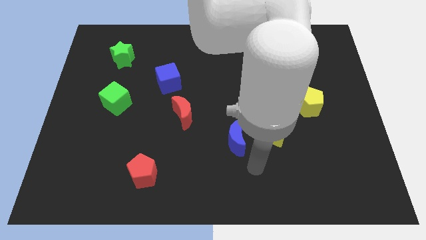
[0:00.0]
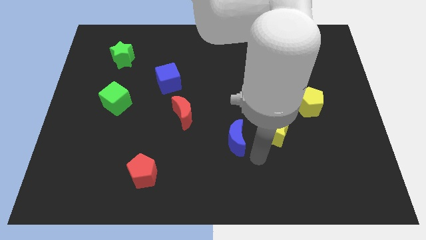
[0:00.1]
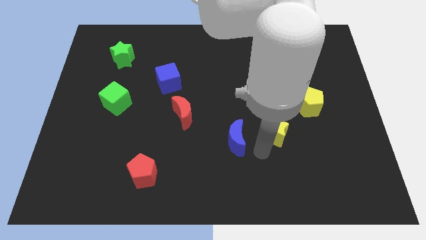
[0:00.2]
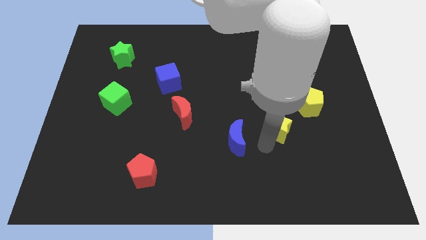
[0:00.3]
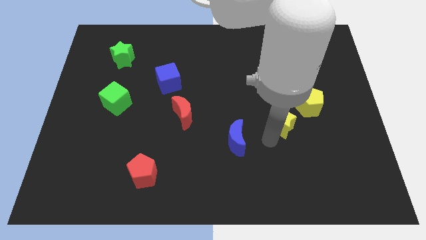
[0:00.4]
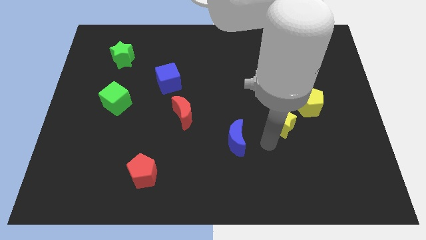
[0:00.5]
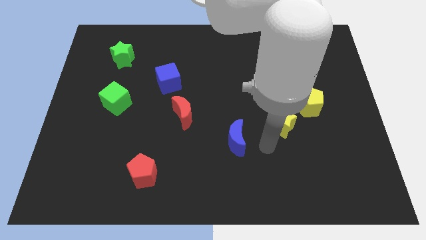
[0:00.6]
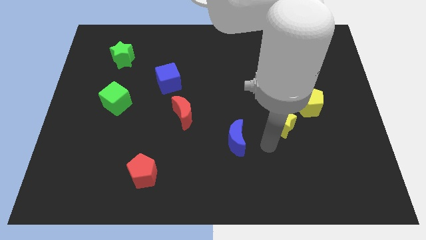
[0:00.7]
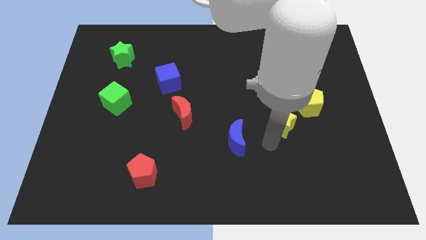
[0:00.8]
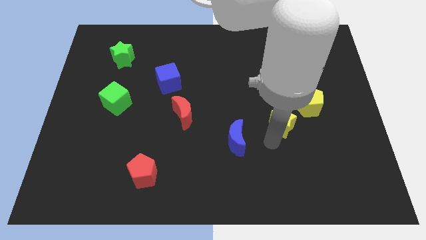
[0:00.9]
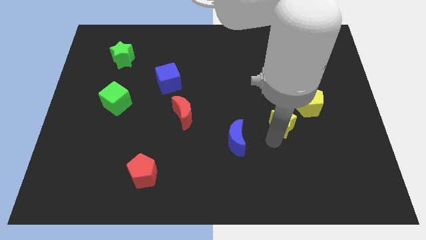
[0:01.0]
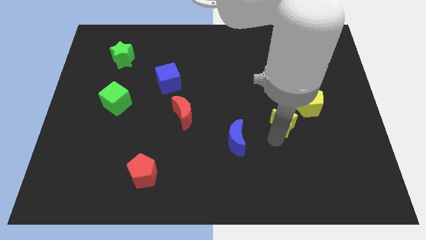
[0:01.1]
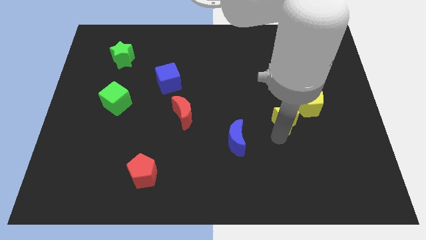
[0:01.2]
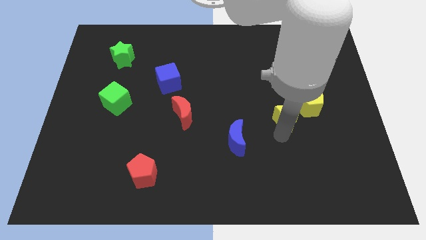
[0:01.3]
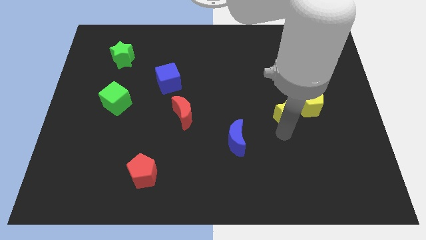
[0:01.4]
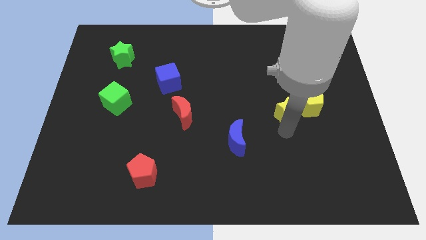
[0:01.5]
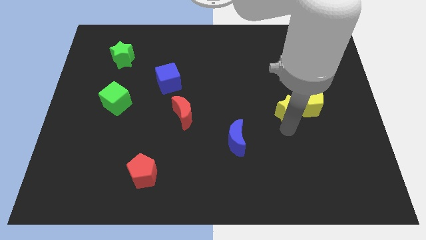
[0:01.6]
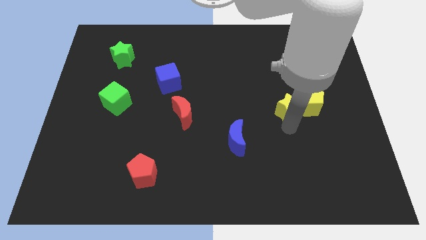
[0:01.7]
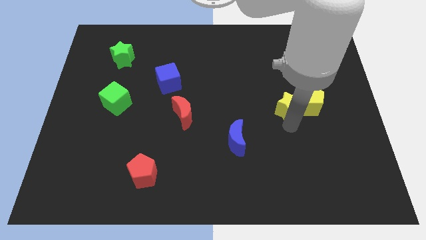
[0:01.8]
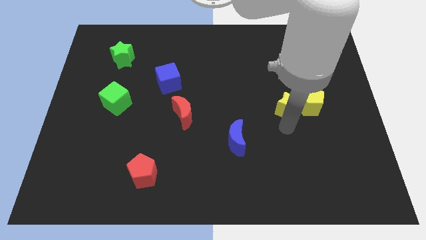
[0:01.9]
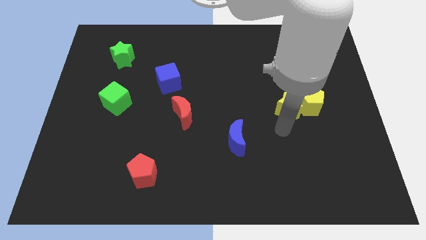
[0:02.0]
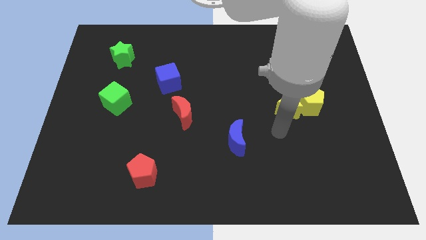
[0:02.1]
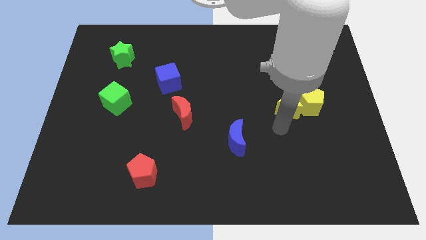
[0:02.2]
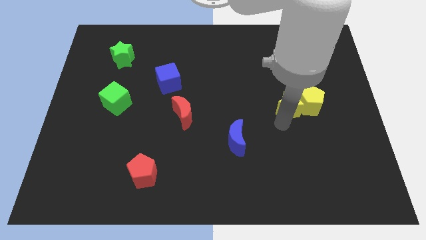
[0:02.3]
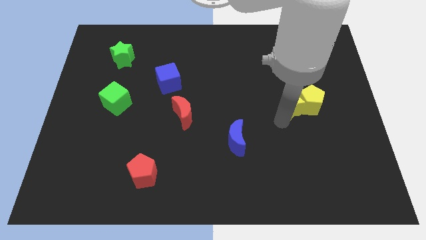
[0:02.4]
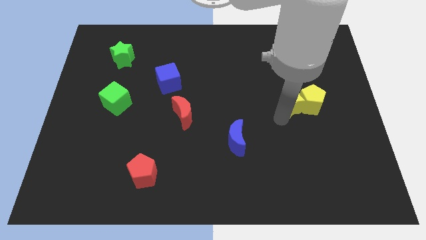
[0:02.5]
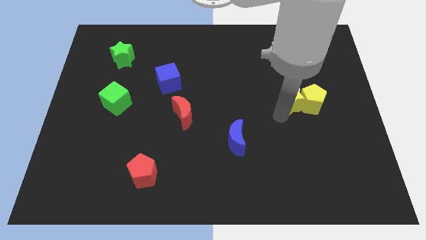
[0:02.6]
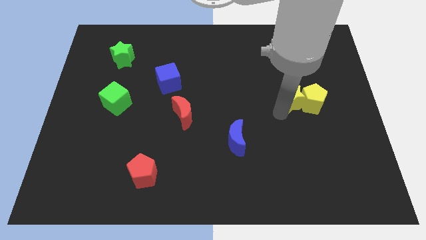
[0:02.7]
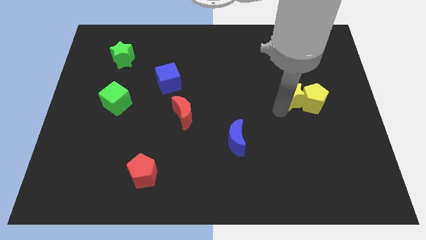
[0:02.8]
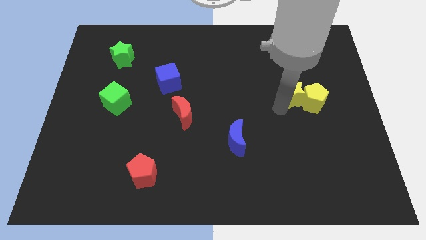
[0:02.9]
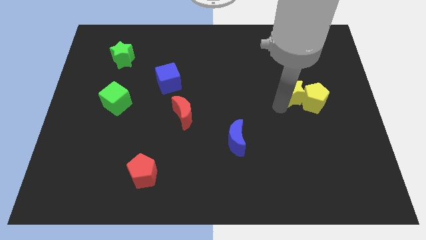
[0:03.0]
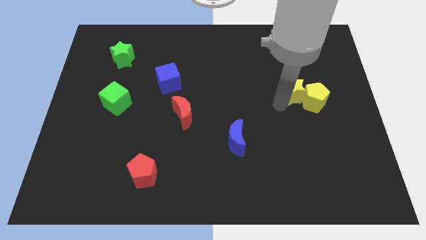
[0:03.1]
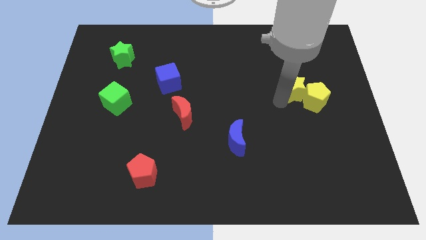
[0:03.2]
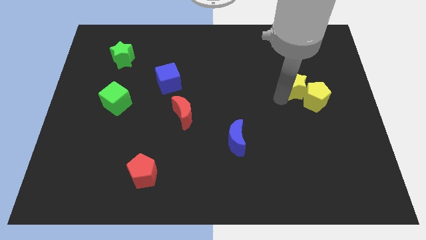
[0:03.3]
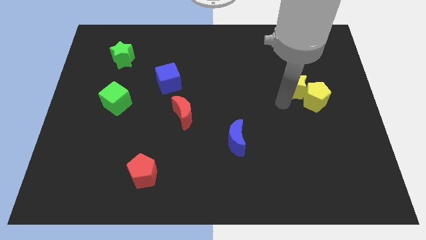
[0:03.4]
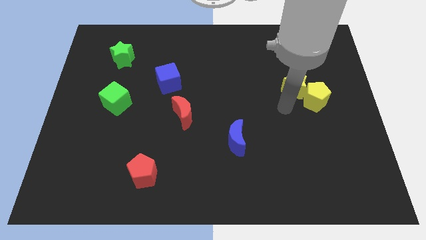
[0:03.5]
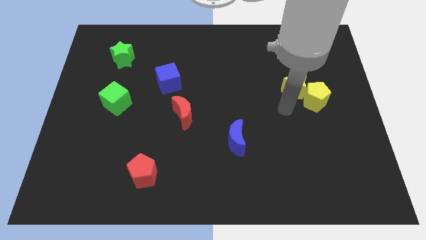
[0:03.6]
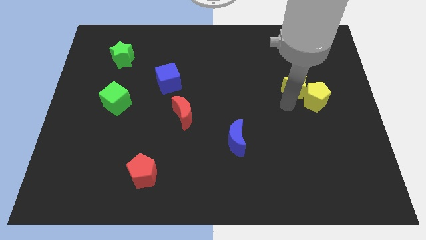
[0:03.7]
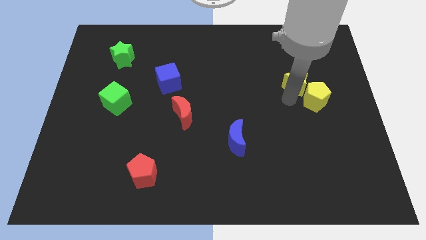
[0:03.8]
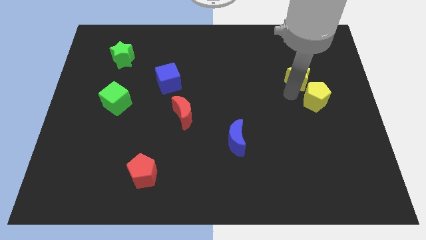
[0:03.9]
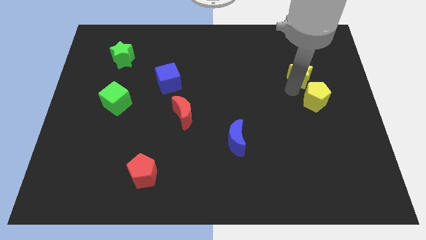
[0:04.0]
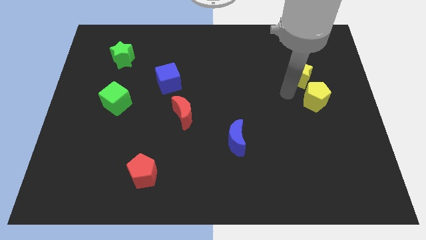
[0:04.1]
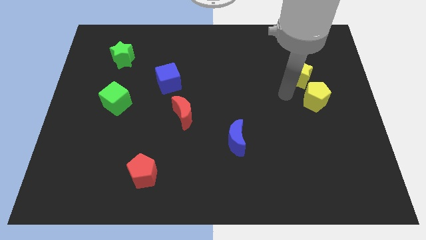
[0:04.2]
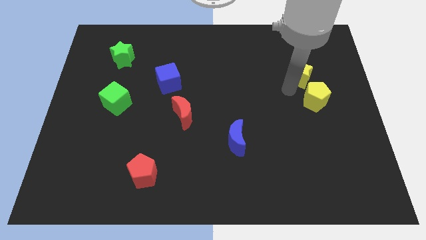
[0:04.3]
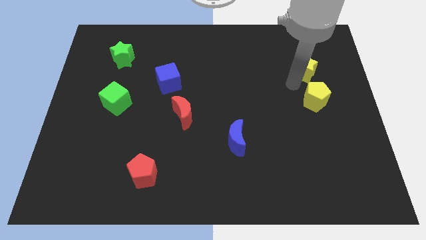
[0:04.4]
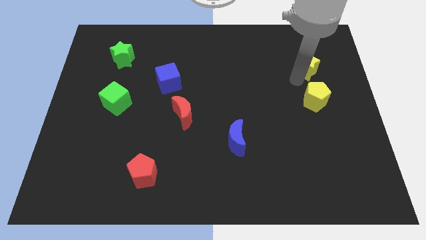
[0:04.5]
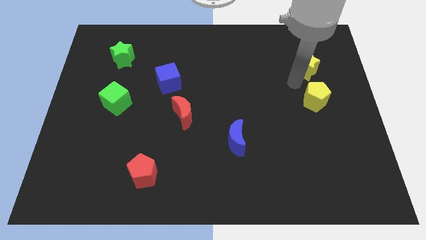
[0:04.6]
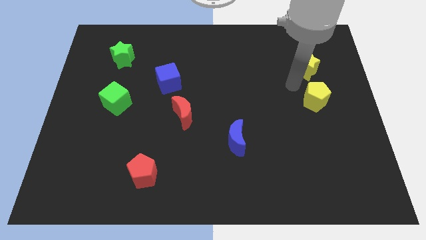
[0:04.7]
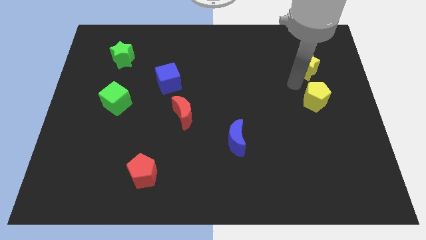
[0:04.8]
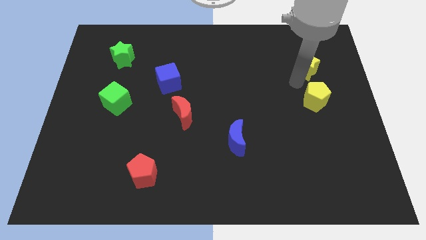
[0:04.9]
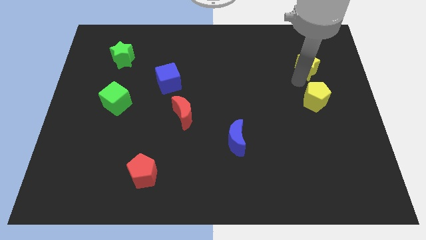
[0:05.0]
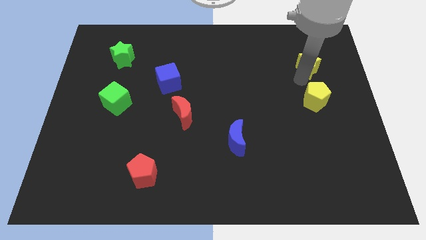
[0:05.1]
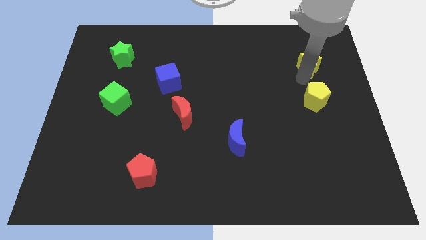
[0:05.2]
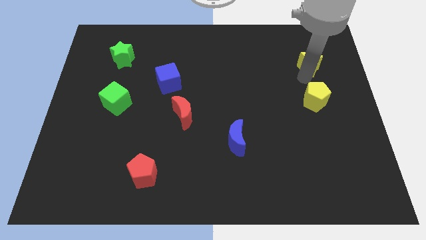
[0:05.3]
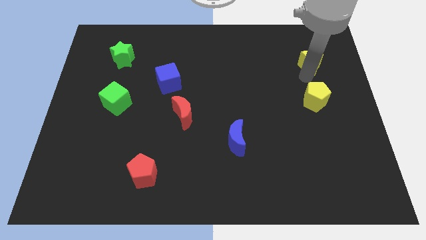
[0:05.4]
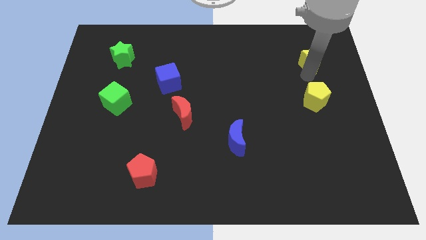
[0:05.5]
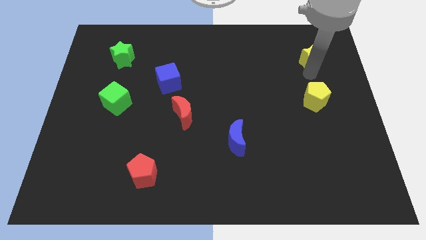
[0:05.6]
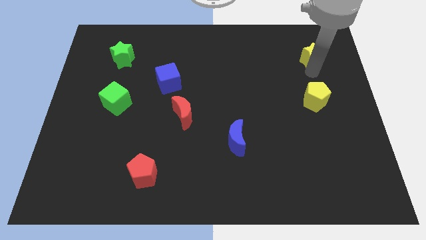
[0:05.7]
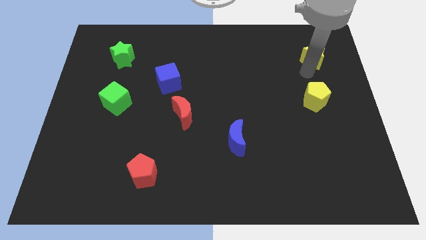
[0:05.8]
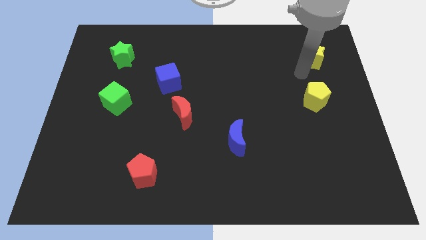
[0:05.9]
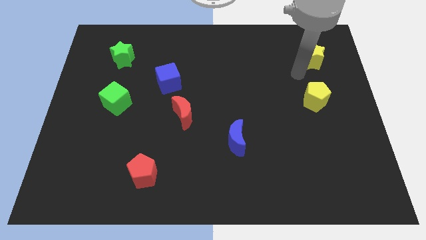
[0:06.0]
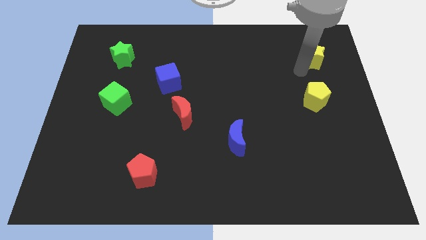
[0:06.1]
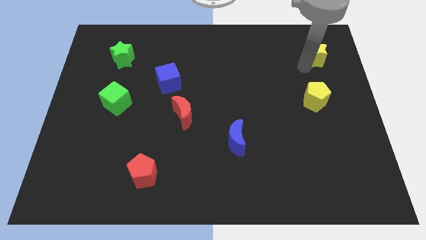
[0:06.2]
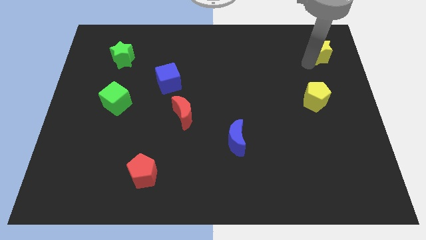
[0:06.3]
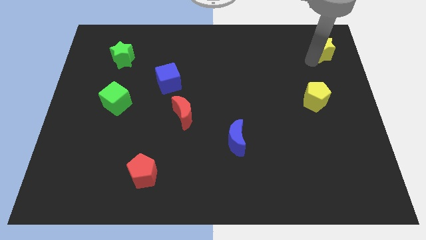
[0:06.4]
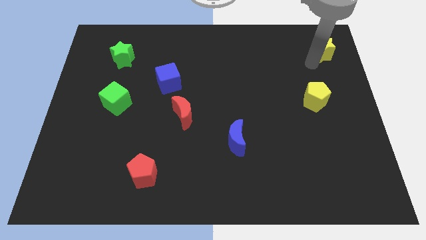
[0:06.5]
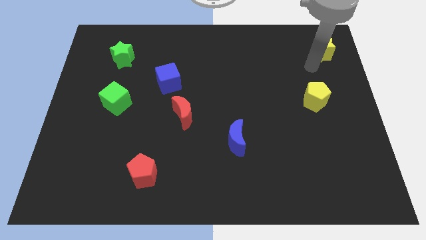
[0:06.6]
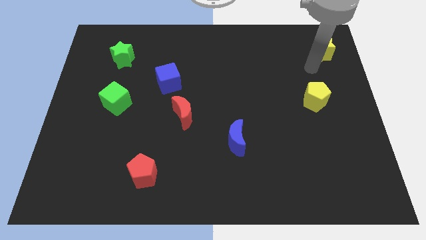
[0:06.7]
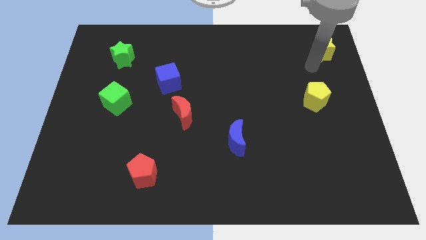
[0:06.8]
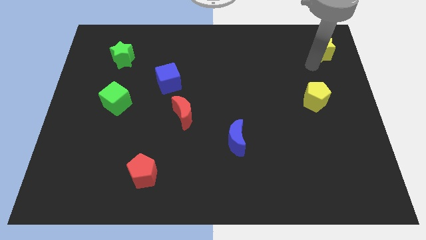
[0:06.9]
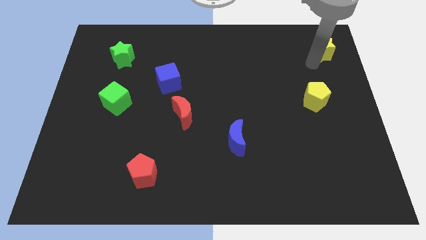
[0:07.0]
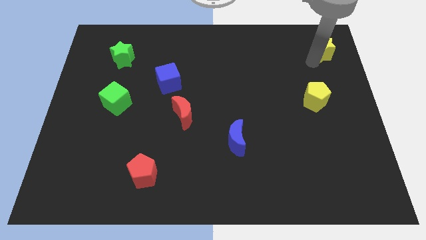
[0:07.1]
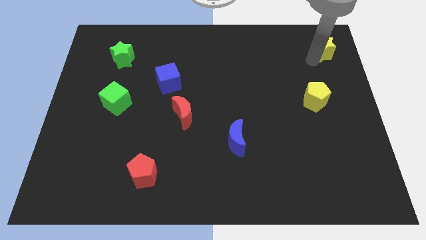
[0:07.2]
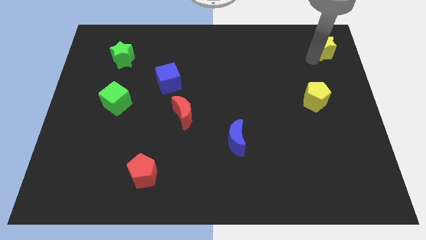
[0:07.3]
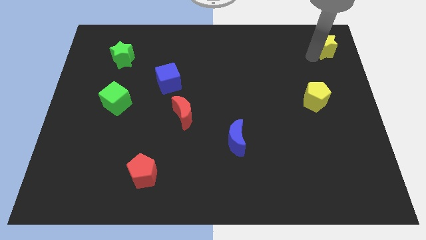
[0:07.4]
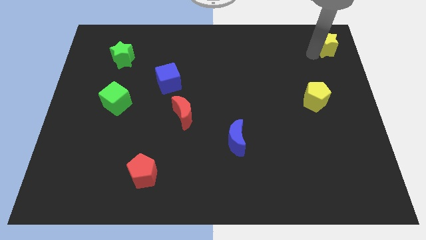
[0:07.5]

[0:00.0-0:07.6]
move the yellow star to the upper right corner
